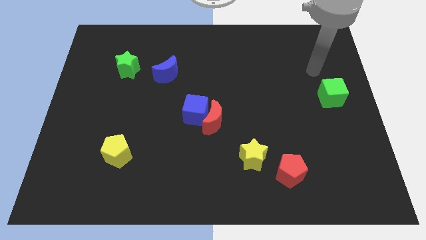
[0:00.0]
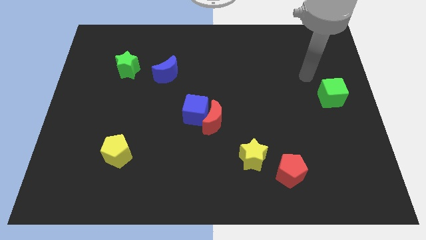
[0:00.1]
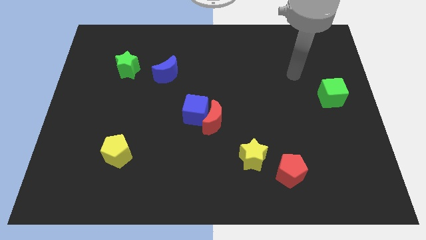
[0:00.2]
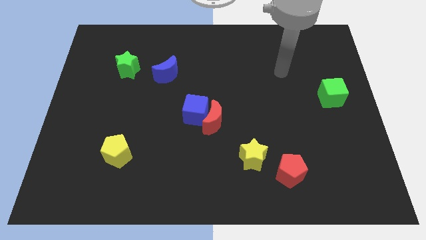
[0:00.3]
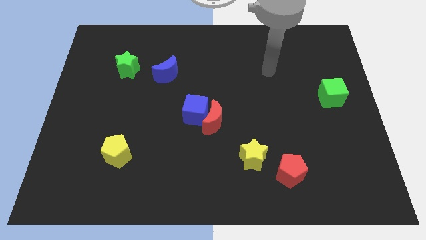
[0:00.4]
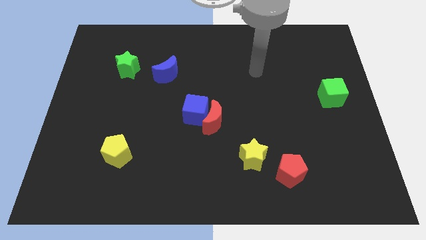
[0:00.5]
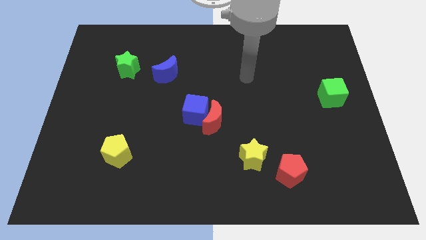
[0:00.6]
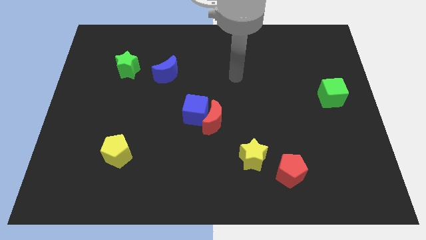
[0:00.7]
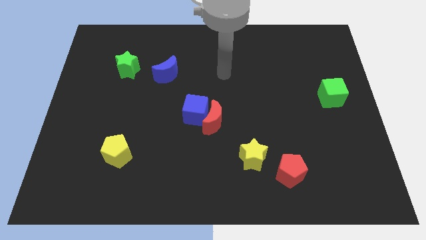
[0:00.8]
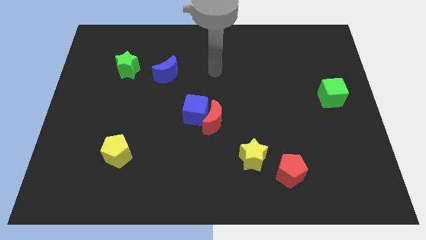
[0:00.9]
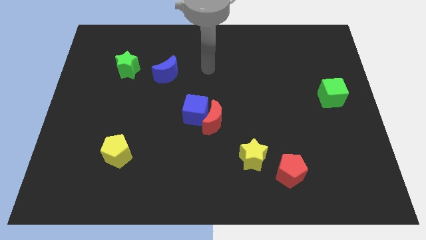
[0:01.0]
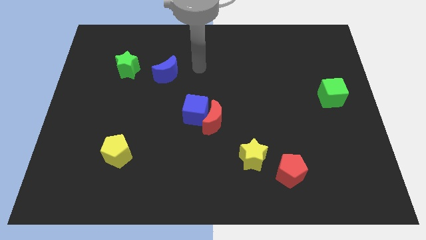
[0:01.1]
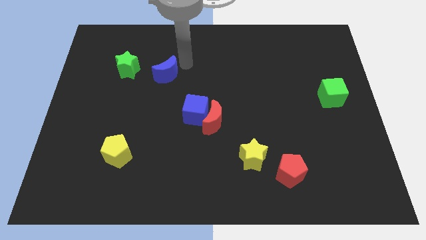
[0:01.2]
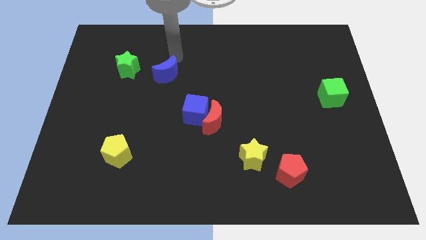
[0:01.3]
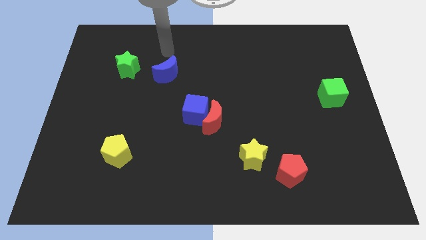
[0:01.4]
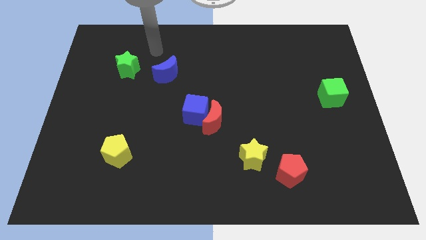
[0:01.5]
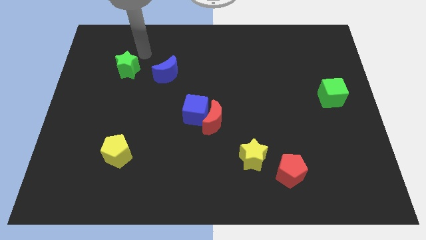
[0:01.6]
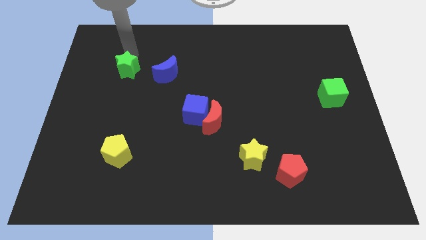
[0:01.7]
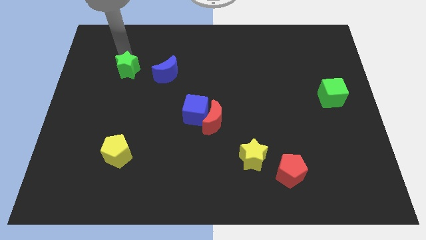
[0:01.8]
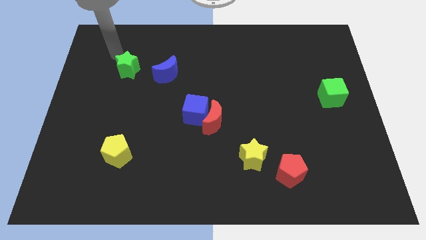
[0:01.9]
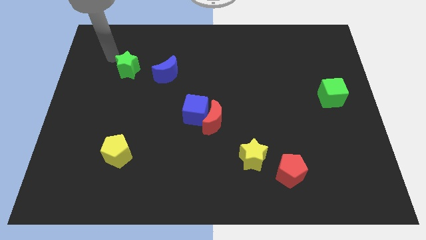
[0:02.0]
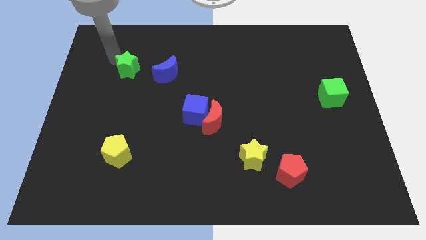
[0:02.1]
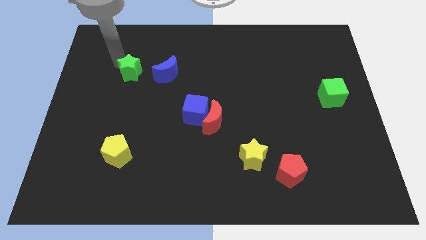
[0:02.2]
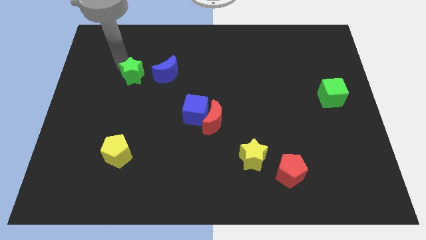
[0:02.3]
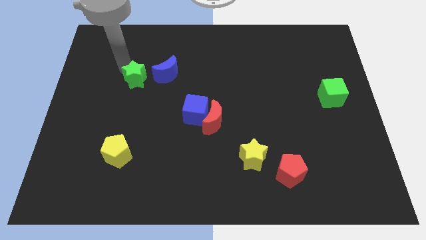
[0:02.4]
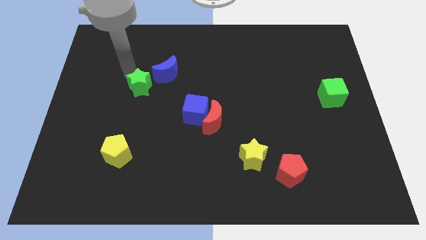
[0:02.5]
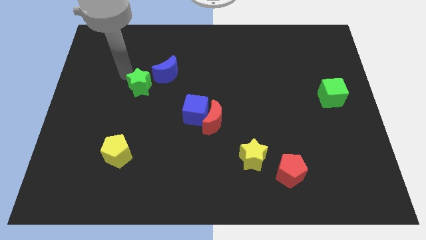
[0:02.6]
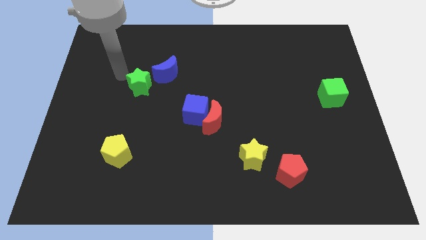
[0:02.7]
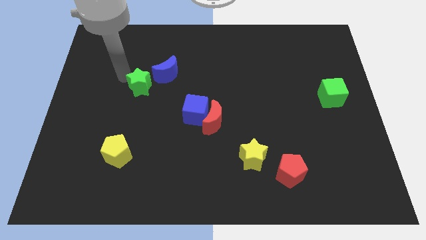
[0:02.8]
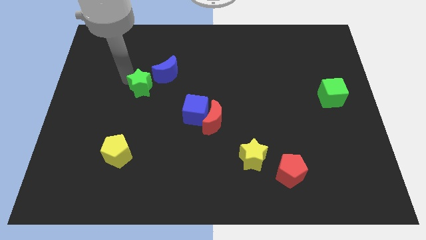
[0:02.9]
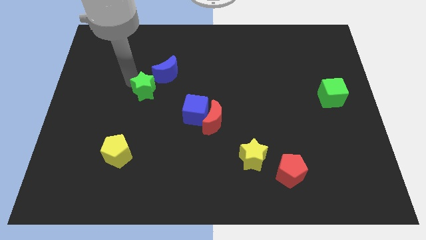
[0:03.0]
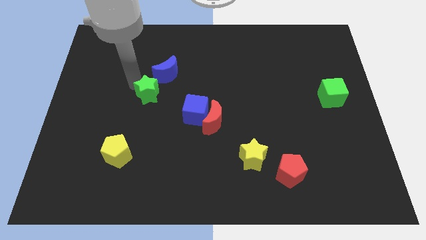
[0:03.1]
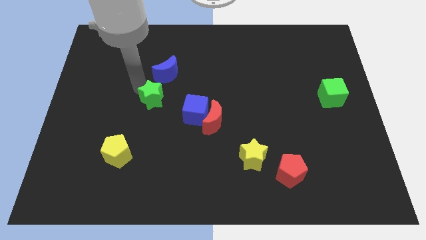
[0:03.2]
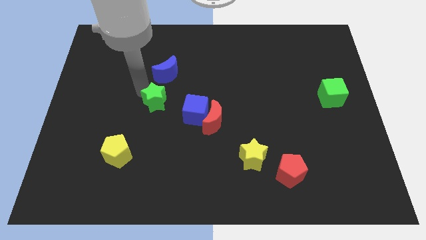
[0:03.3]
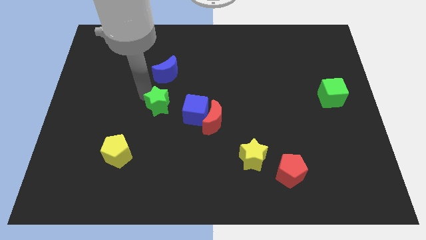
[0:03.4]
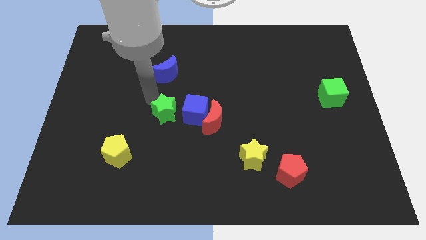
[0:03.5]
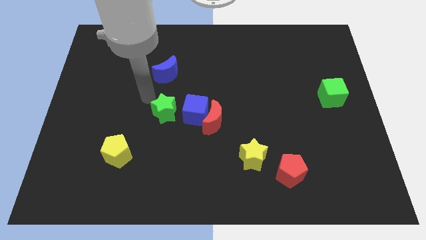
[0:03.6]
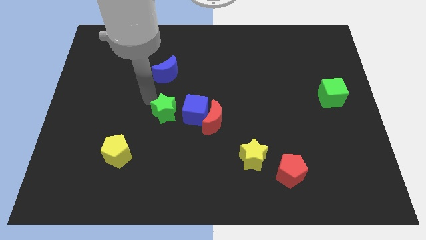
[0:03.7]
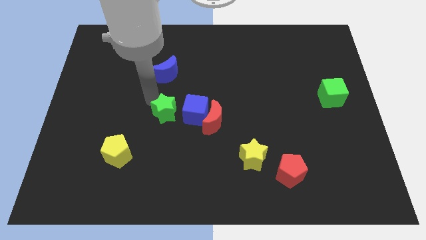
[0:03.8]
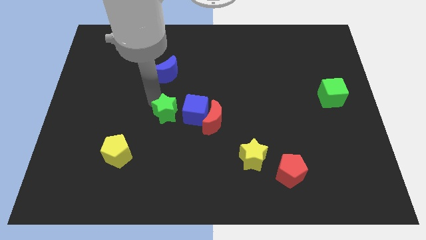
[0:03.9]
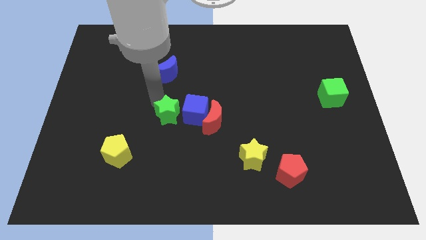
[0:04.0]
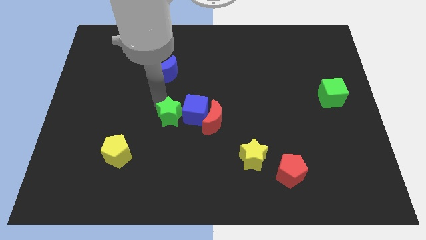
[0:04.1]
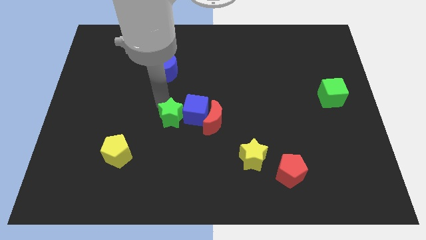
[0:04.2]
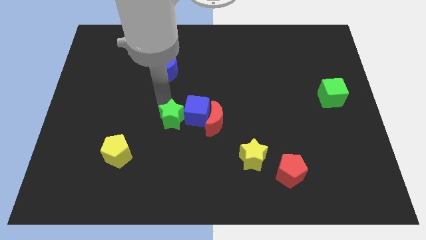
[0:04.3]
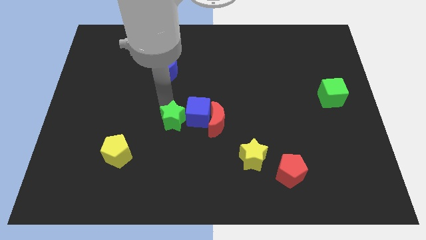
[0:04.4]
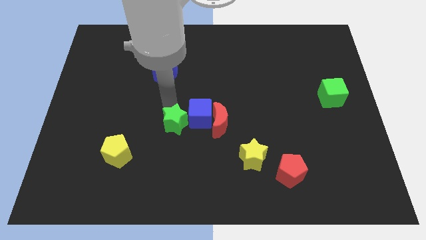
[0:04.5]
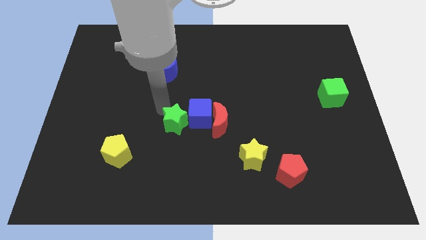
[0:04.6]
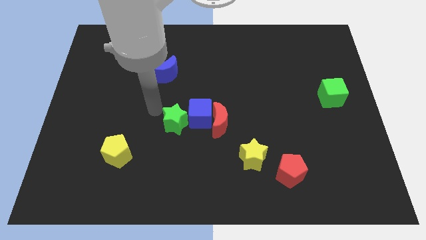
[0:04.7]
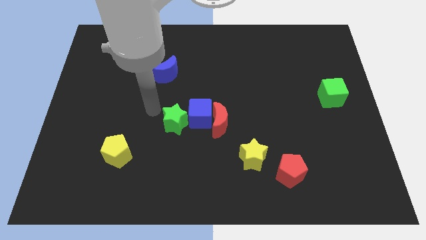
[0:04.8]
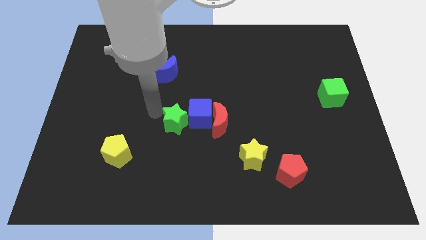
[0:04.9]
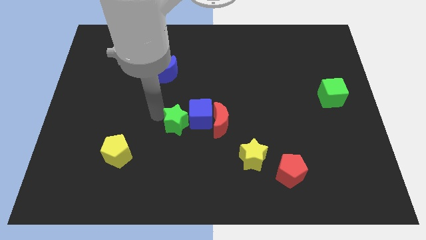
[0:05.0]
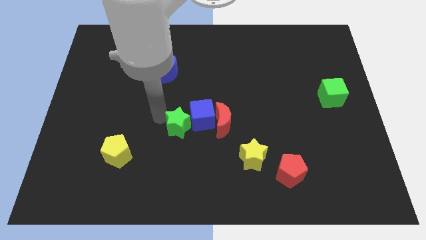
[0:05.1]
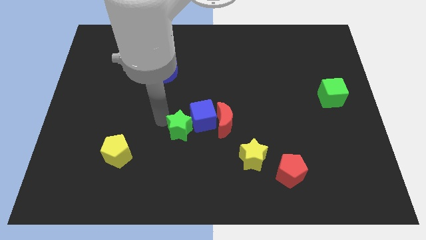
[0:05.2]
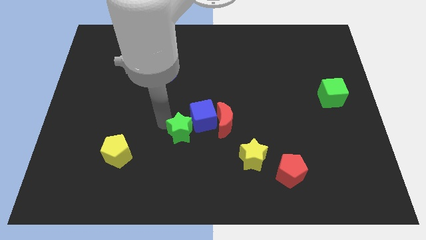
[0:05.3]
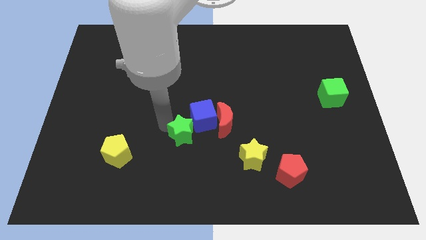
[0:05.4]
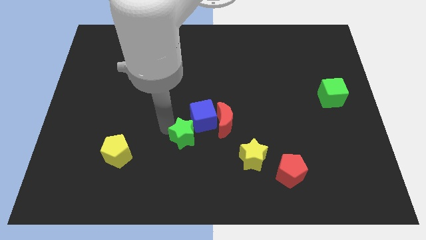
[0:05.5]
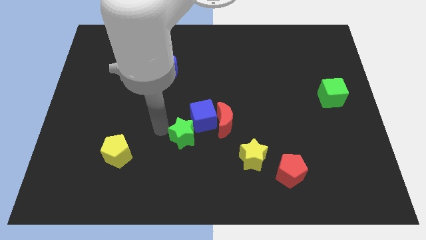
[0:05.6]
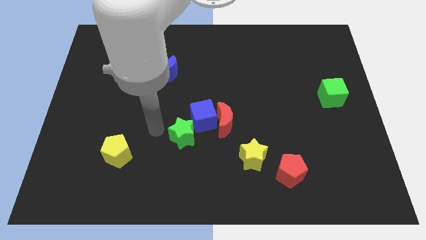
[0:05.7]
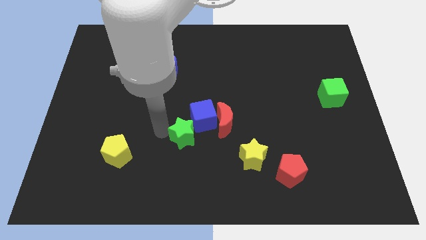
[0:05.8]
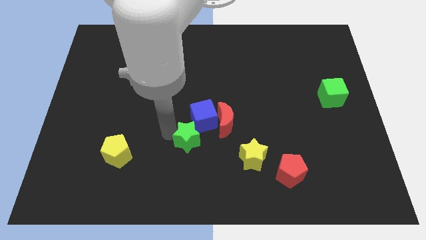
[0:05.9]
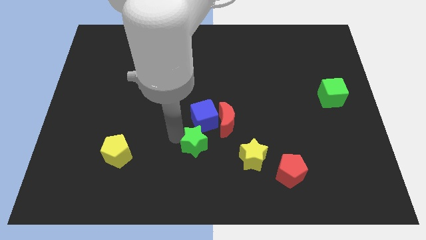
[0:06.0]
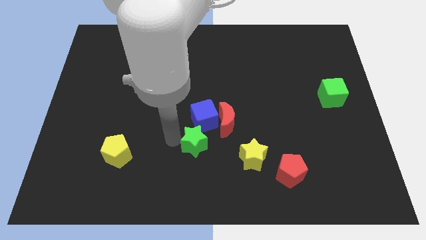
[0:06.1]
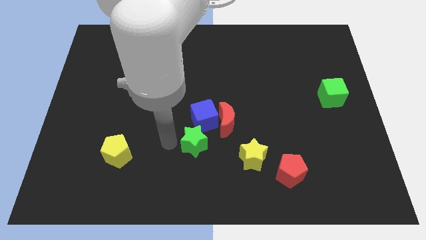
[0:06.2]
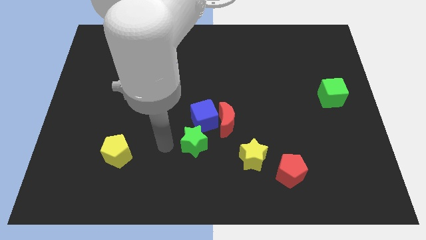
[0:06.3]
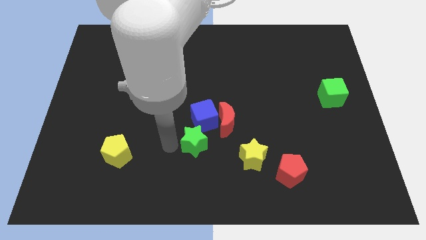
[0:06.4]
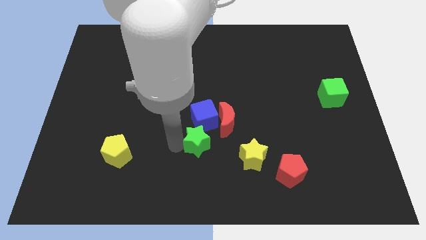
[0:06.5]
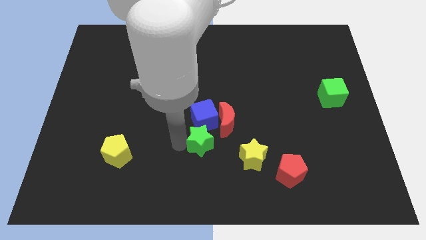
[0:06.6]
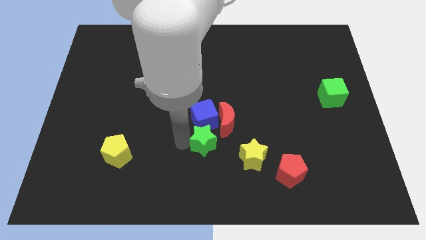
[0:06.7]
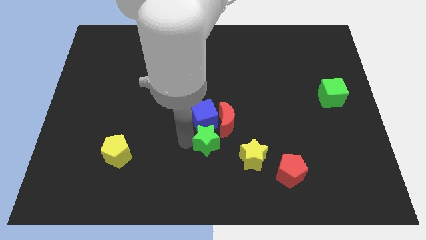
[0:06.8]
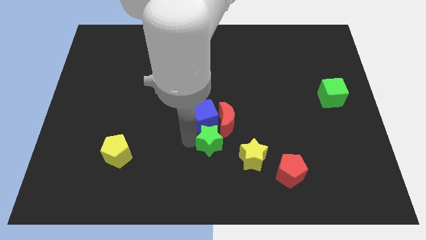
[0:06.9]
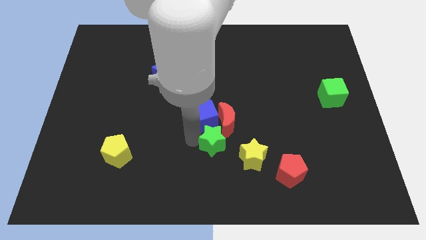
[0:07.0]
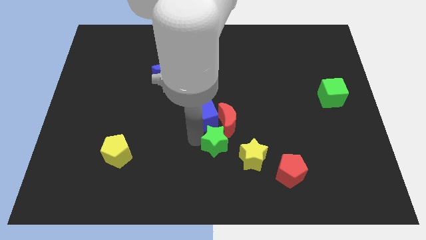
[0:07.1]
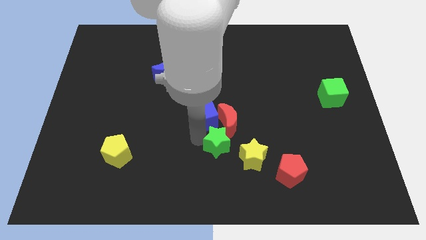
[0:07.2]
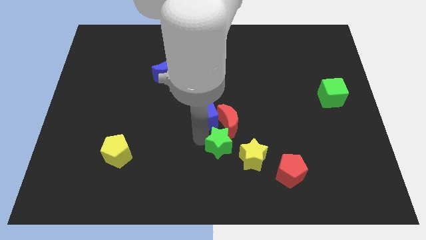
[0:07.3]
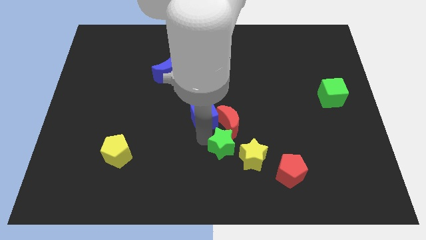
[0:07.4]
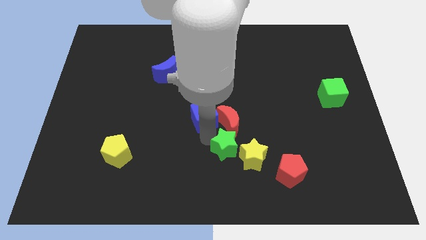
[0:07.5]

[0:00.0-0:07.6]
push the green star next to the yellow star
